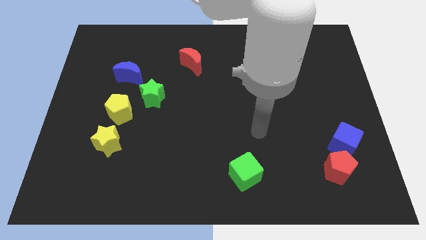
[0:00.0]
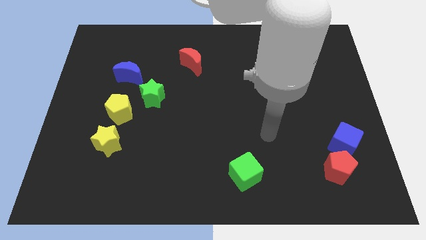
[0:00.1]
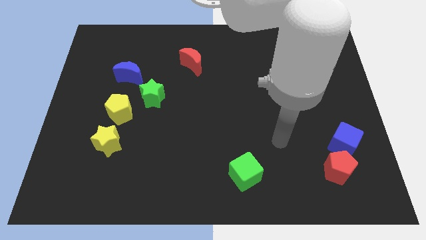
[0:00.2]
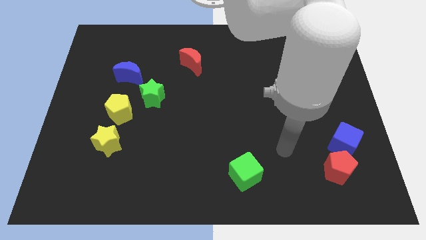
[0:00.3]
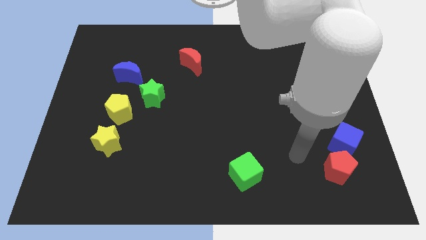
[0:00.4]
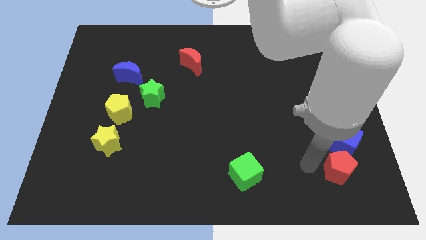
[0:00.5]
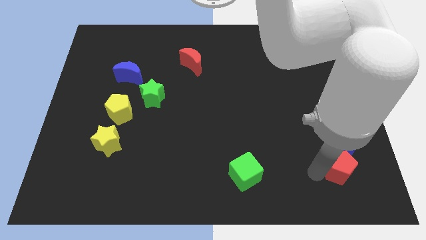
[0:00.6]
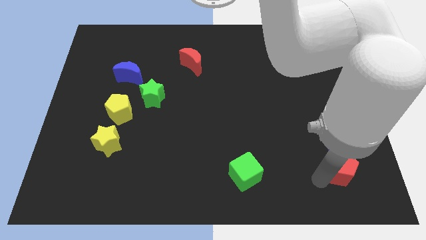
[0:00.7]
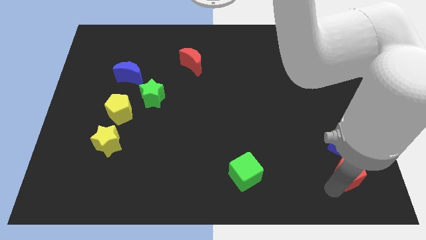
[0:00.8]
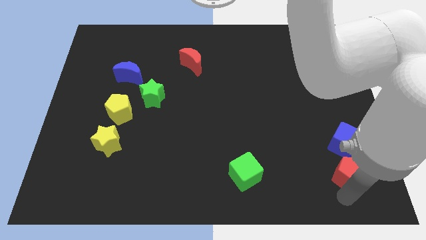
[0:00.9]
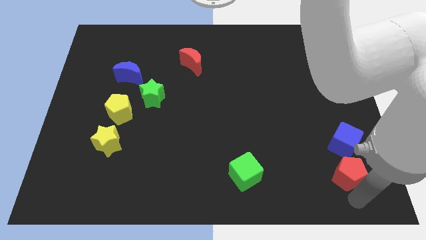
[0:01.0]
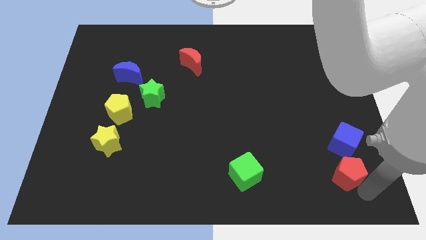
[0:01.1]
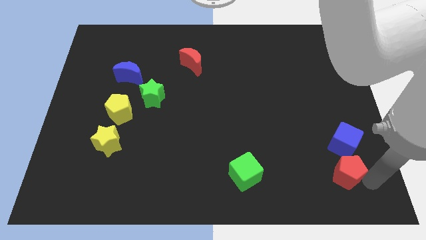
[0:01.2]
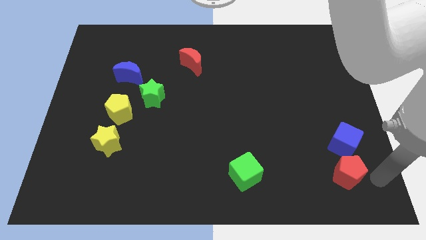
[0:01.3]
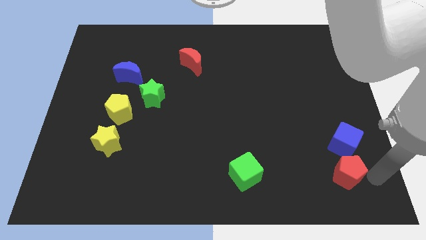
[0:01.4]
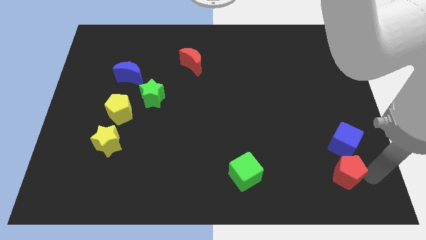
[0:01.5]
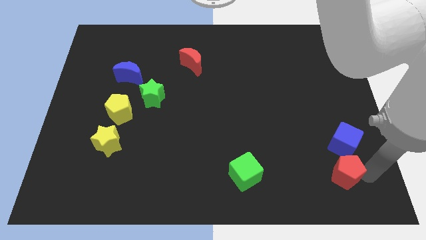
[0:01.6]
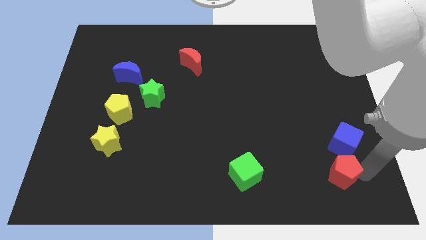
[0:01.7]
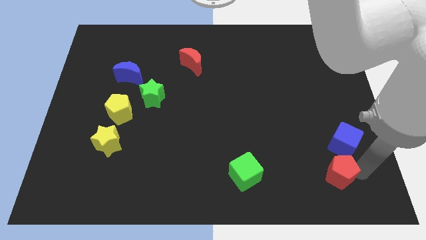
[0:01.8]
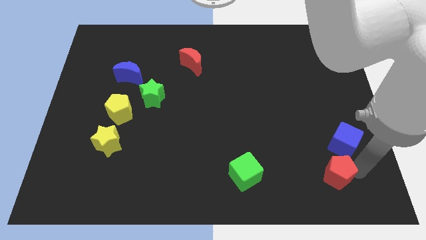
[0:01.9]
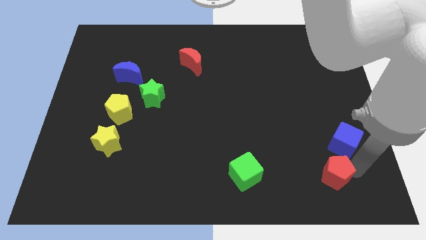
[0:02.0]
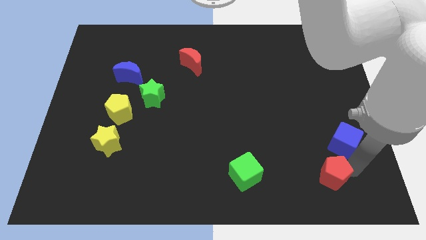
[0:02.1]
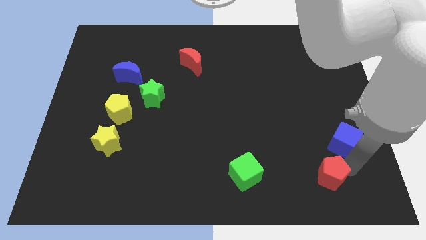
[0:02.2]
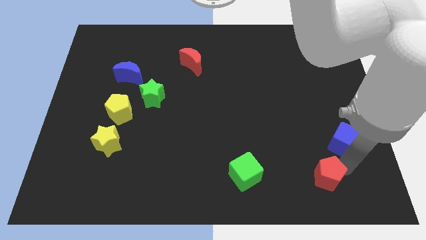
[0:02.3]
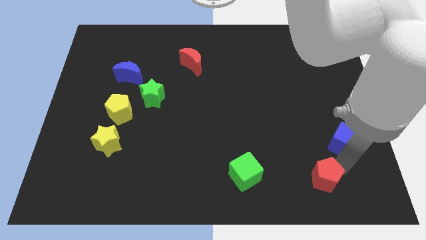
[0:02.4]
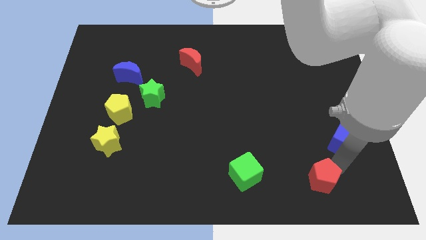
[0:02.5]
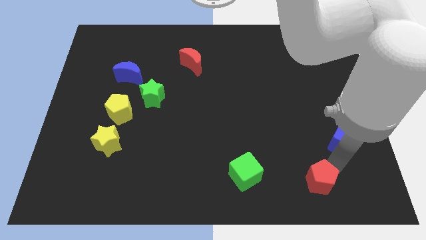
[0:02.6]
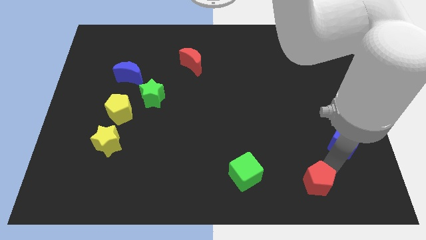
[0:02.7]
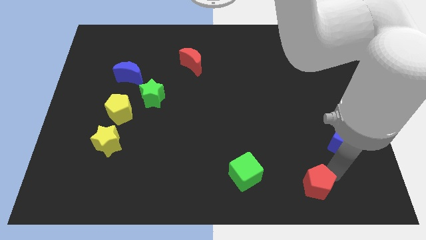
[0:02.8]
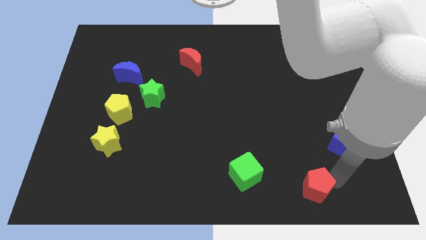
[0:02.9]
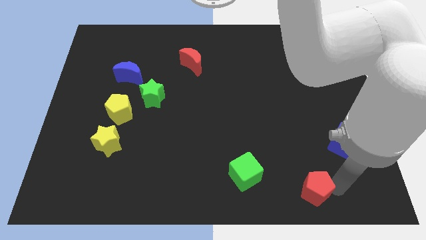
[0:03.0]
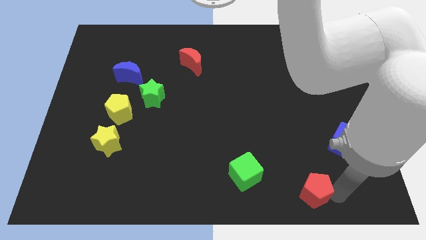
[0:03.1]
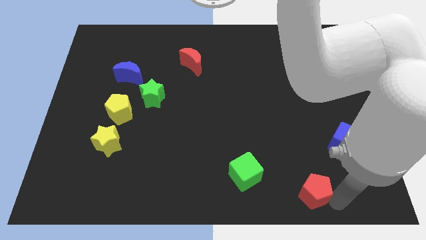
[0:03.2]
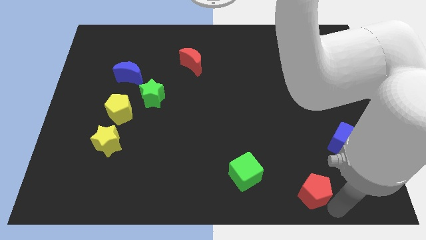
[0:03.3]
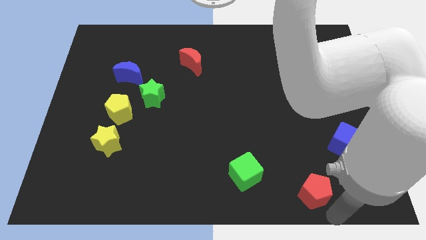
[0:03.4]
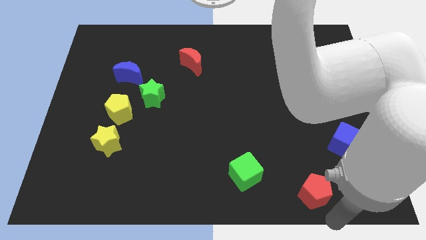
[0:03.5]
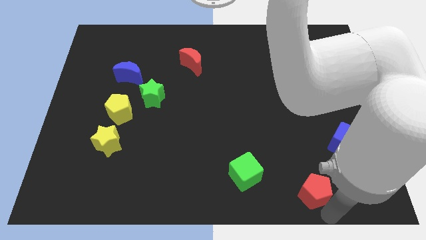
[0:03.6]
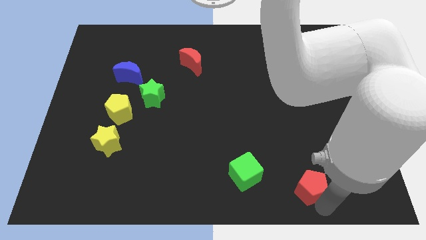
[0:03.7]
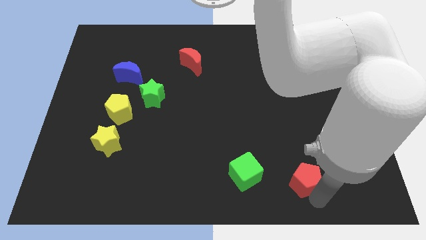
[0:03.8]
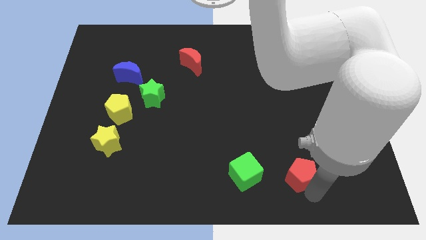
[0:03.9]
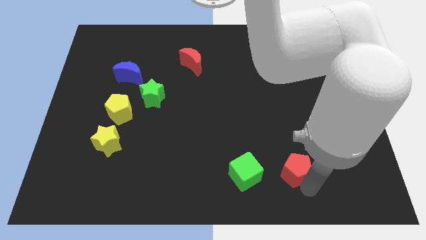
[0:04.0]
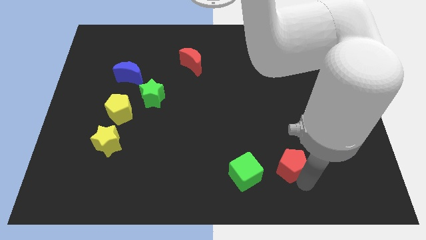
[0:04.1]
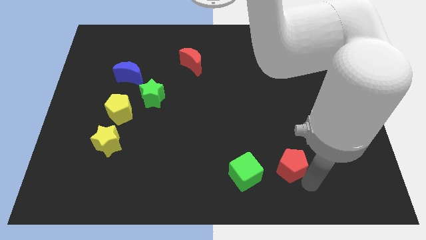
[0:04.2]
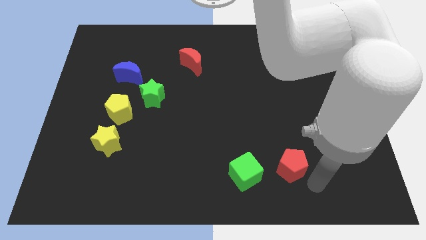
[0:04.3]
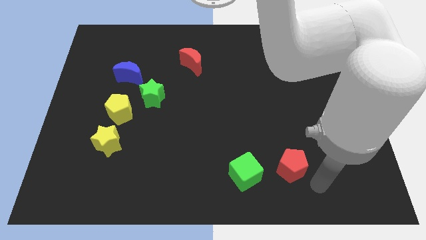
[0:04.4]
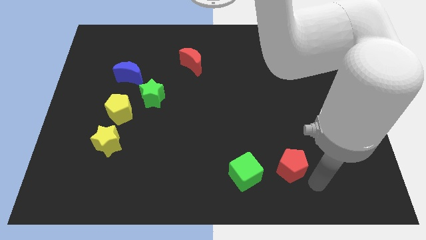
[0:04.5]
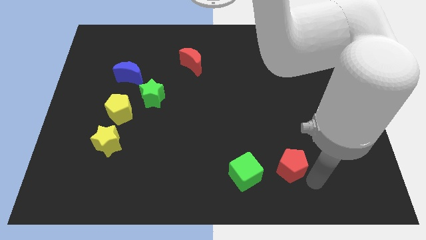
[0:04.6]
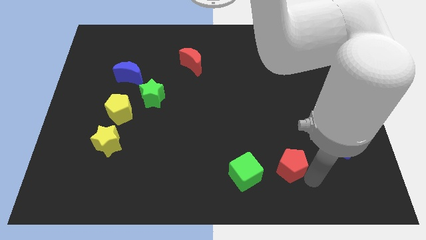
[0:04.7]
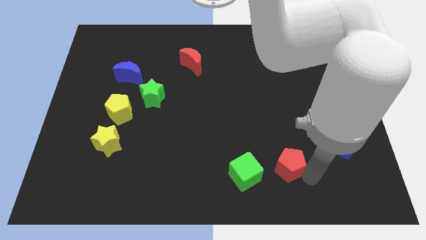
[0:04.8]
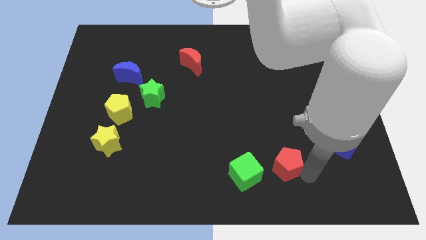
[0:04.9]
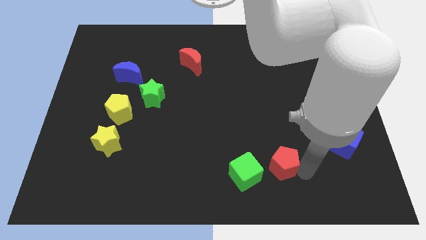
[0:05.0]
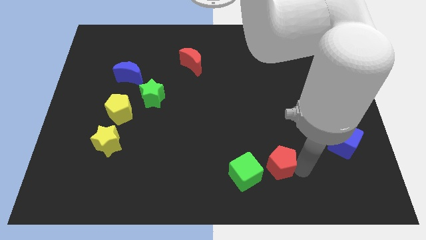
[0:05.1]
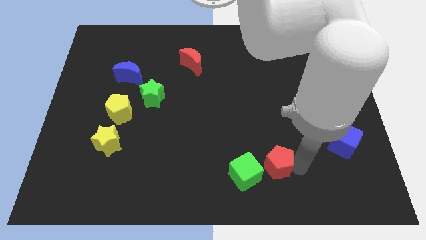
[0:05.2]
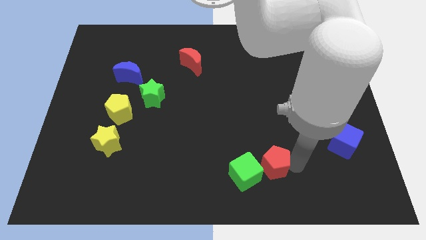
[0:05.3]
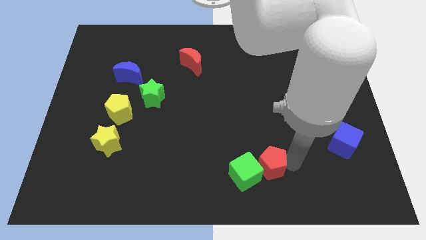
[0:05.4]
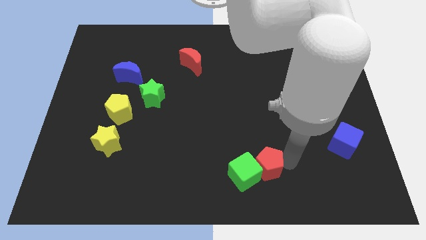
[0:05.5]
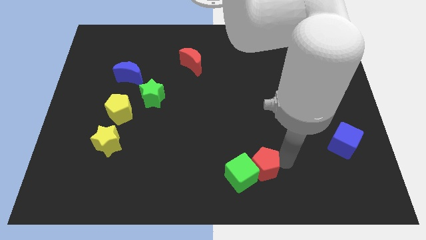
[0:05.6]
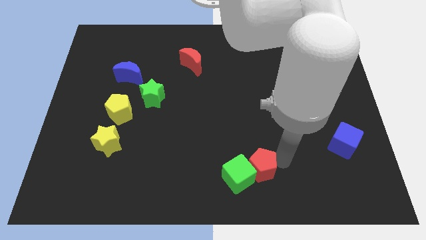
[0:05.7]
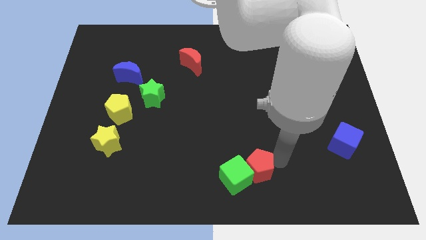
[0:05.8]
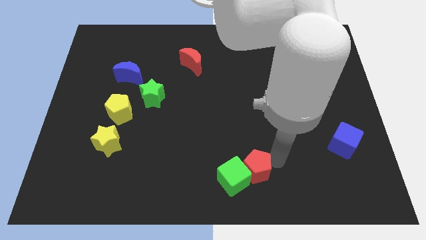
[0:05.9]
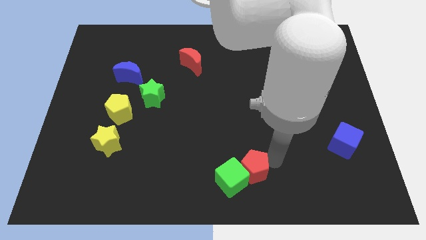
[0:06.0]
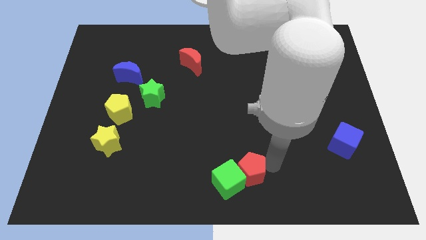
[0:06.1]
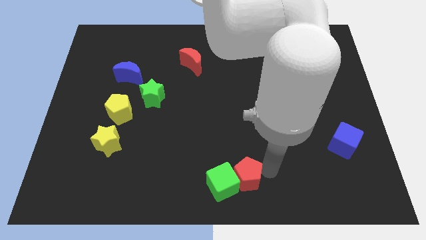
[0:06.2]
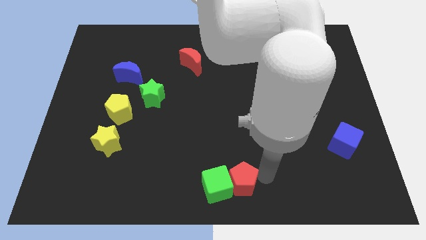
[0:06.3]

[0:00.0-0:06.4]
push the red pentagon left

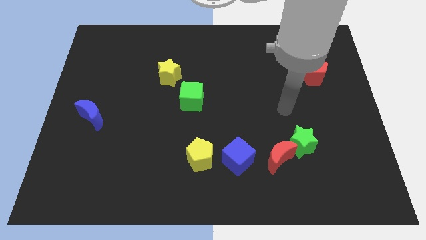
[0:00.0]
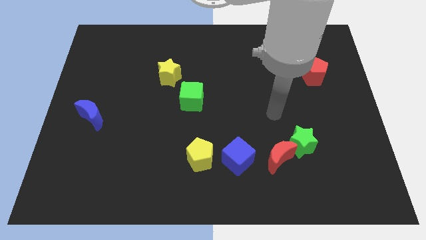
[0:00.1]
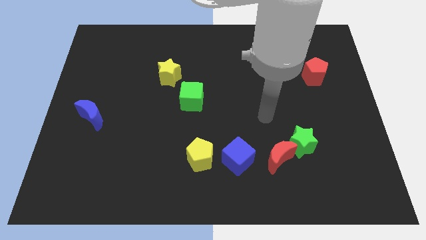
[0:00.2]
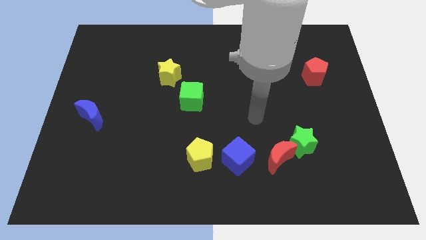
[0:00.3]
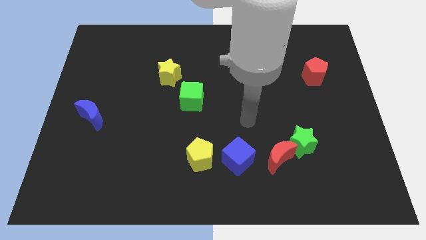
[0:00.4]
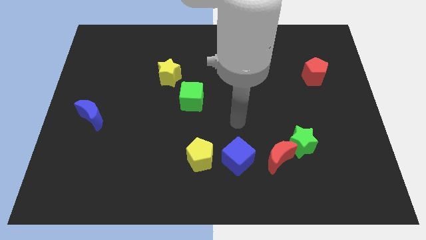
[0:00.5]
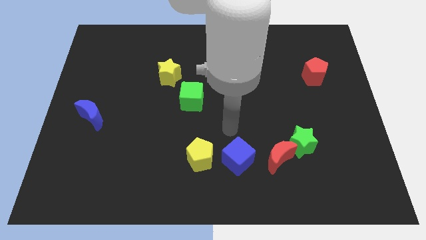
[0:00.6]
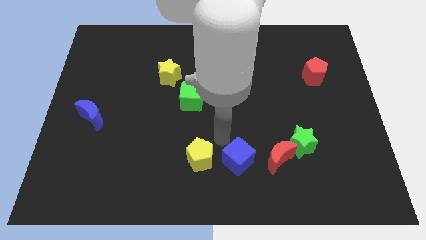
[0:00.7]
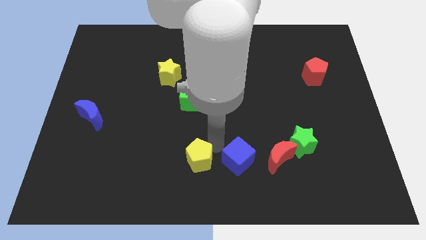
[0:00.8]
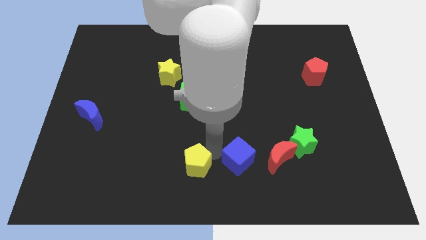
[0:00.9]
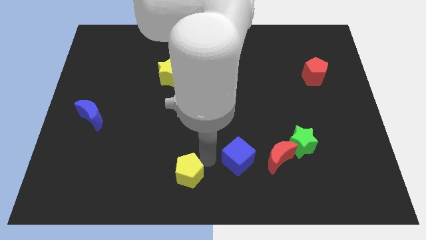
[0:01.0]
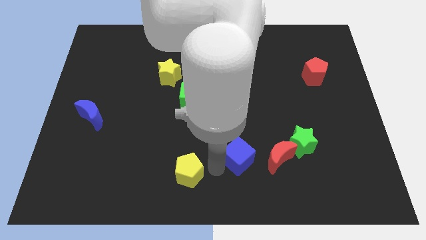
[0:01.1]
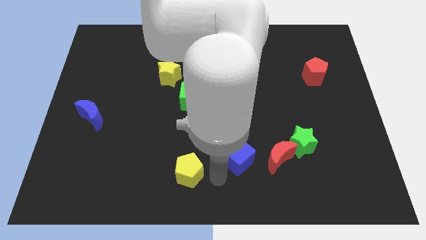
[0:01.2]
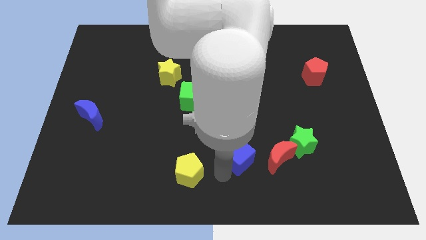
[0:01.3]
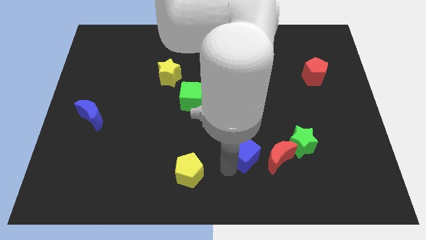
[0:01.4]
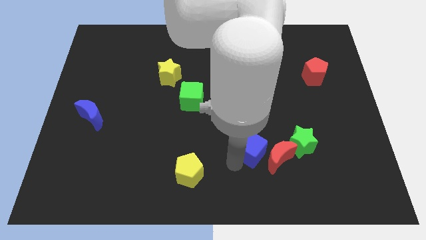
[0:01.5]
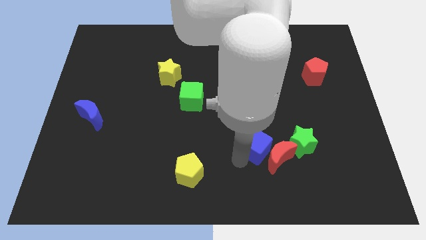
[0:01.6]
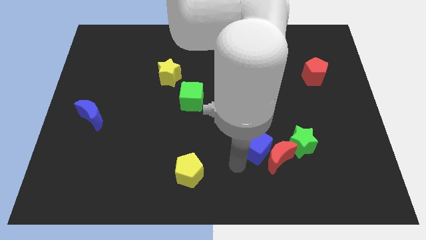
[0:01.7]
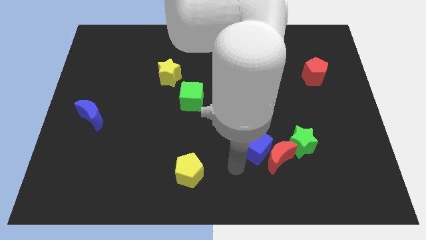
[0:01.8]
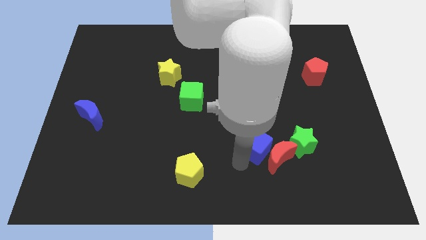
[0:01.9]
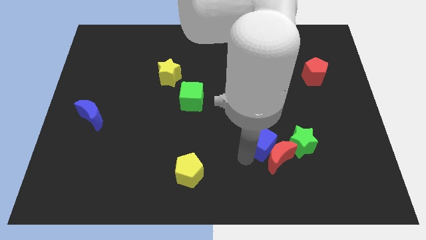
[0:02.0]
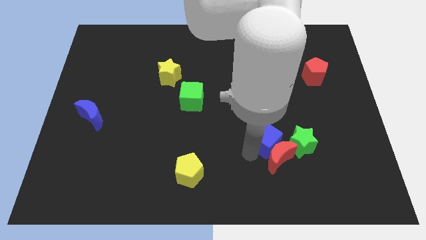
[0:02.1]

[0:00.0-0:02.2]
slide the blue cube up and right a bit
